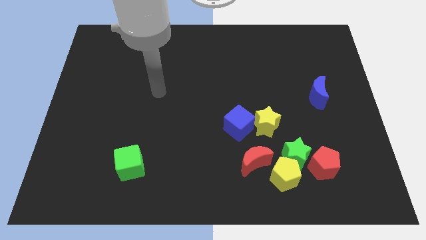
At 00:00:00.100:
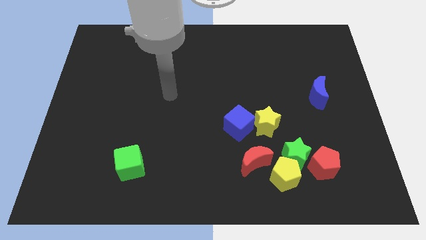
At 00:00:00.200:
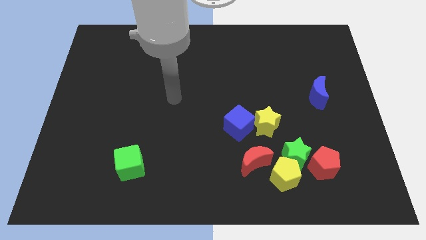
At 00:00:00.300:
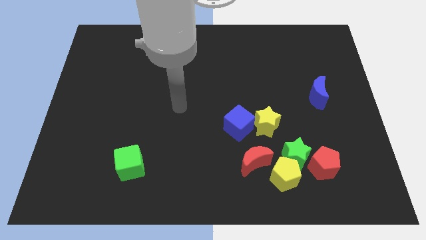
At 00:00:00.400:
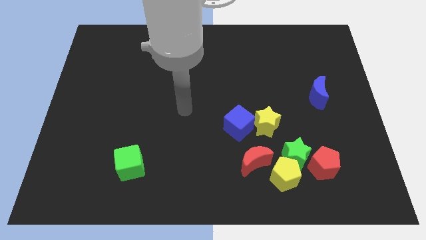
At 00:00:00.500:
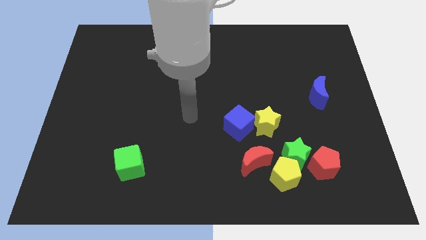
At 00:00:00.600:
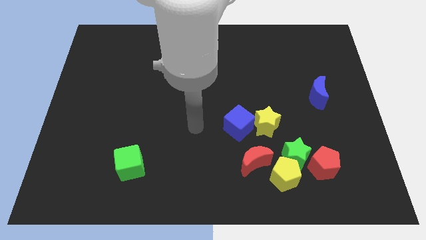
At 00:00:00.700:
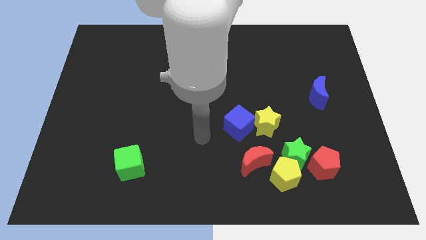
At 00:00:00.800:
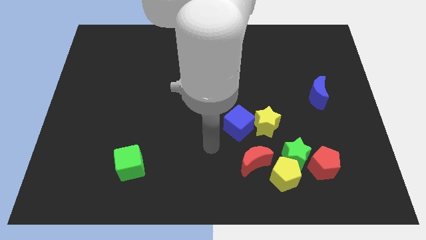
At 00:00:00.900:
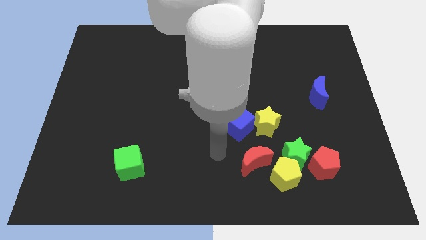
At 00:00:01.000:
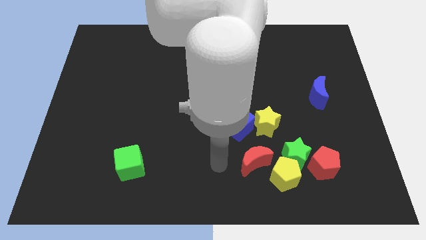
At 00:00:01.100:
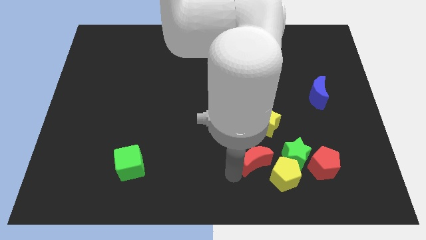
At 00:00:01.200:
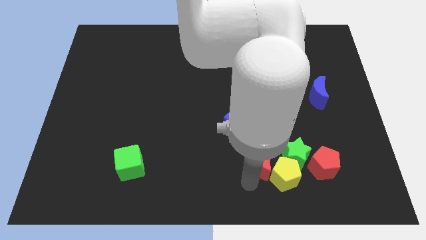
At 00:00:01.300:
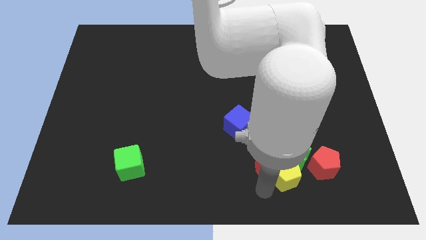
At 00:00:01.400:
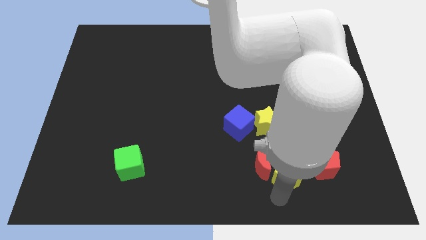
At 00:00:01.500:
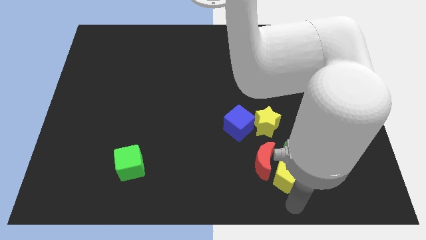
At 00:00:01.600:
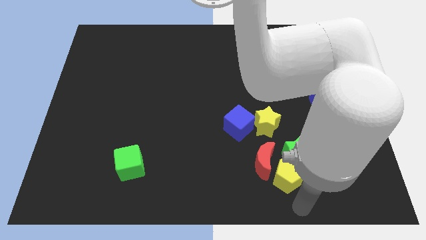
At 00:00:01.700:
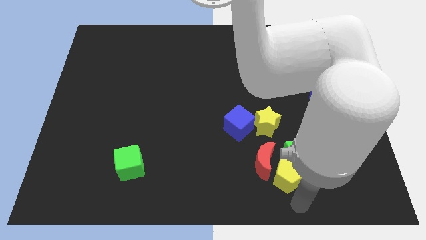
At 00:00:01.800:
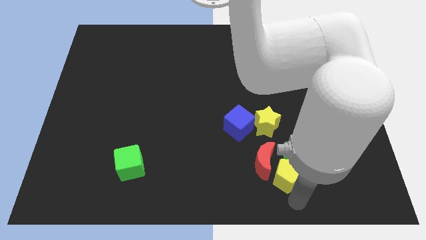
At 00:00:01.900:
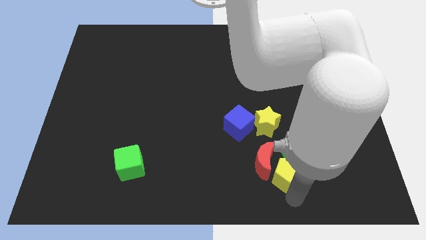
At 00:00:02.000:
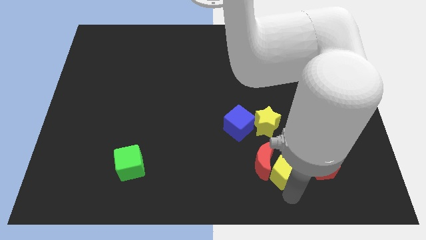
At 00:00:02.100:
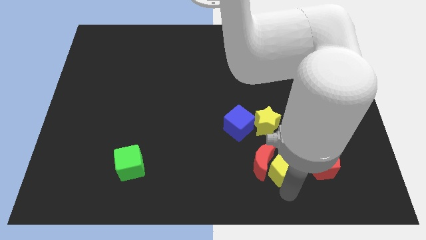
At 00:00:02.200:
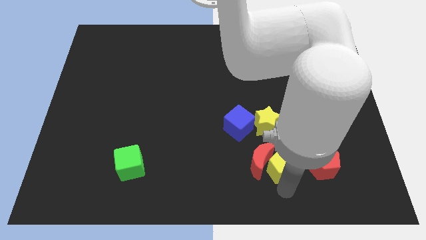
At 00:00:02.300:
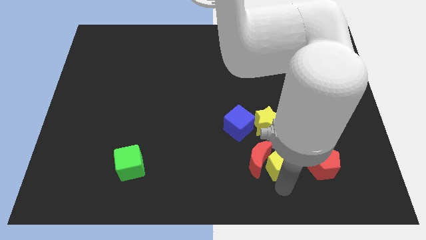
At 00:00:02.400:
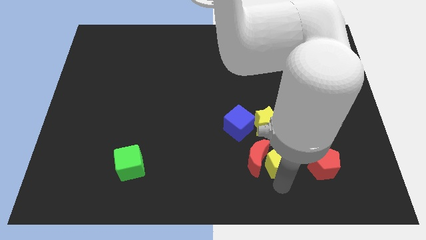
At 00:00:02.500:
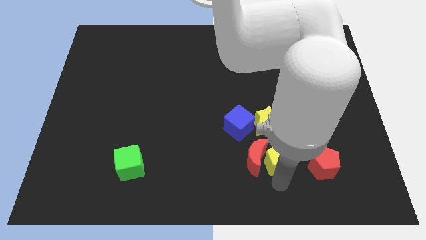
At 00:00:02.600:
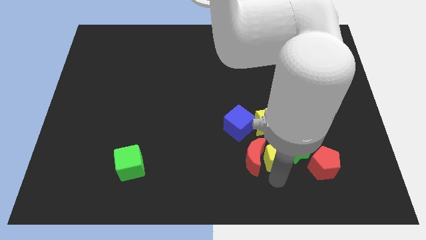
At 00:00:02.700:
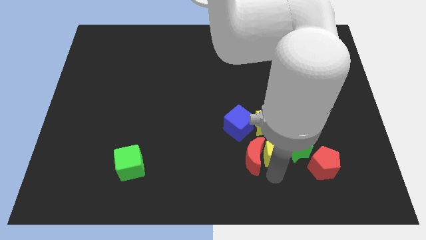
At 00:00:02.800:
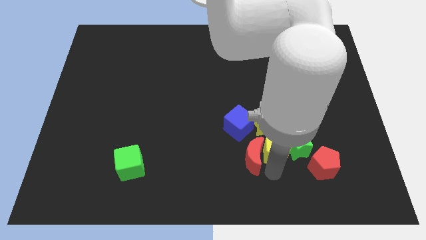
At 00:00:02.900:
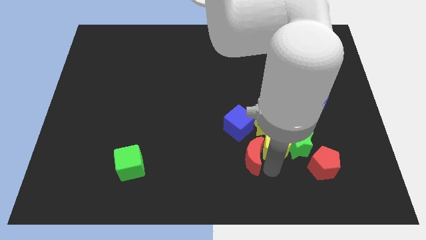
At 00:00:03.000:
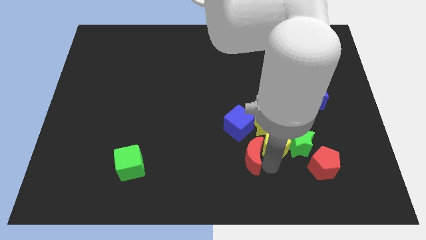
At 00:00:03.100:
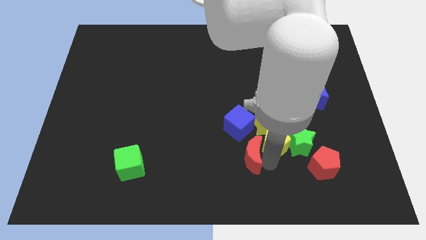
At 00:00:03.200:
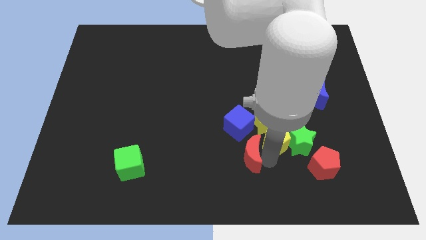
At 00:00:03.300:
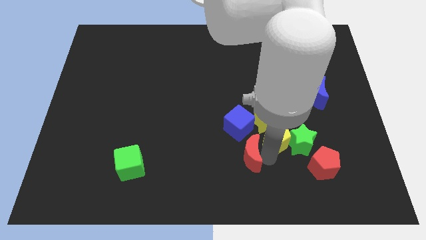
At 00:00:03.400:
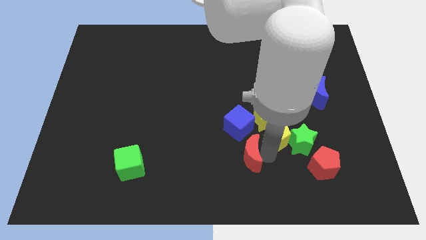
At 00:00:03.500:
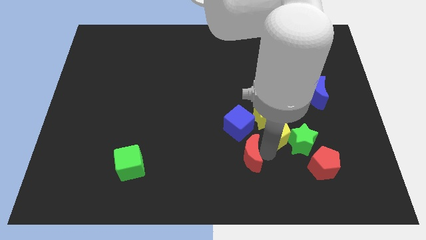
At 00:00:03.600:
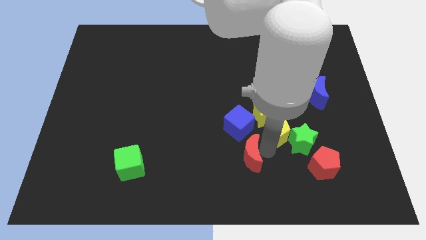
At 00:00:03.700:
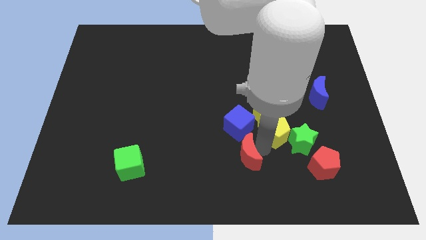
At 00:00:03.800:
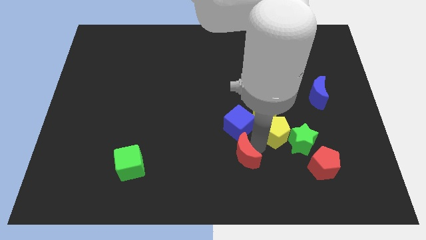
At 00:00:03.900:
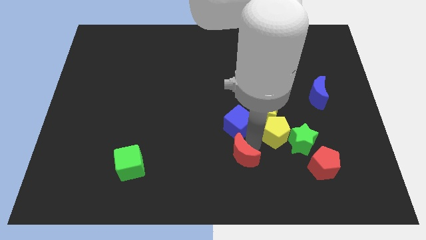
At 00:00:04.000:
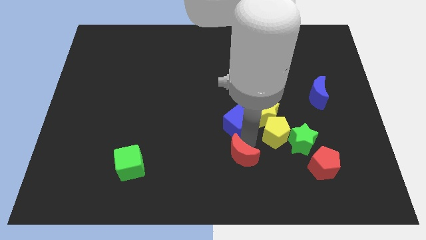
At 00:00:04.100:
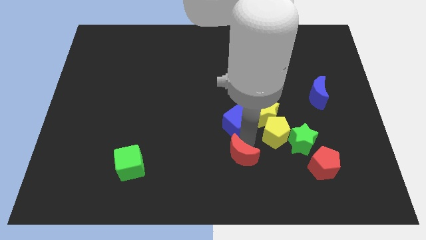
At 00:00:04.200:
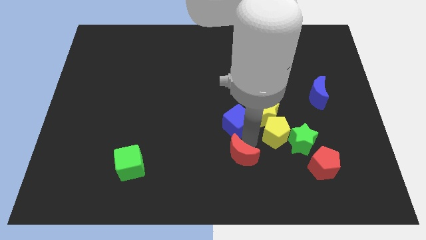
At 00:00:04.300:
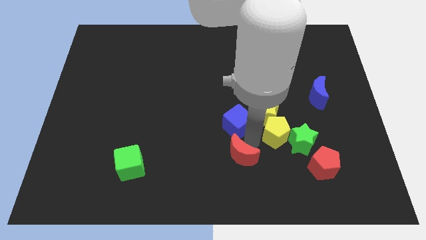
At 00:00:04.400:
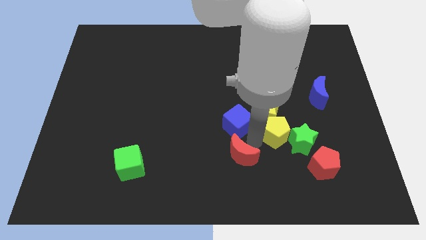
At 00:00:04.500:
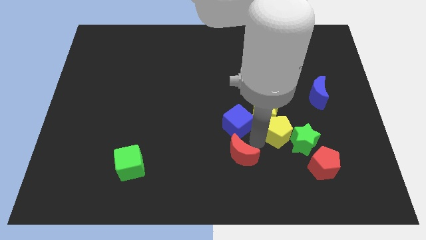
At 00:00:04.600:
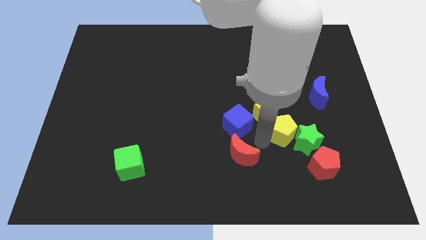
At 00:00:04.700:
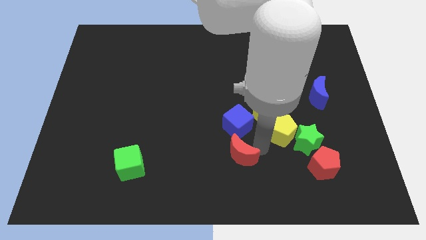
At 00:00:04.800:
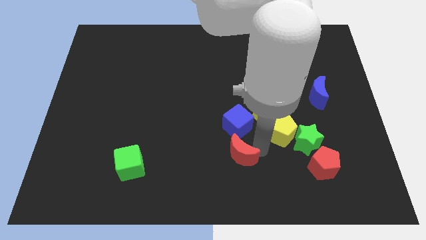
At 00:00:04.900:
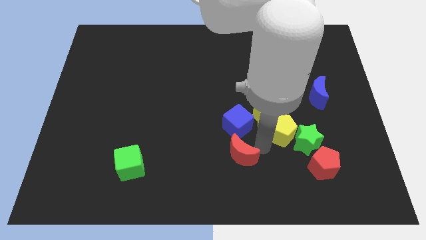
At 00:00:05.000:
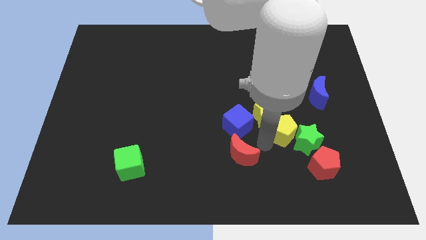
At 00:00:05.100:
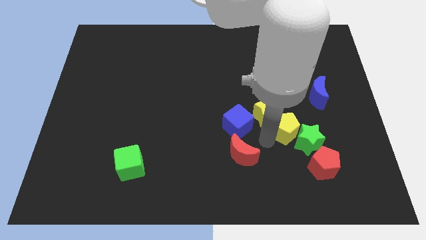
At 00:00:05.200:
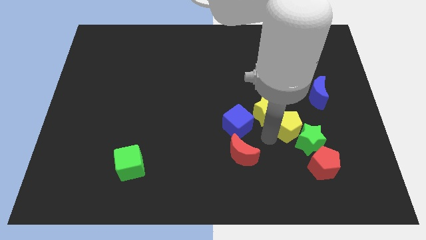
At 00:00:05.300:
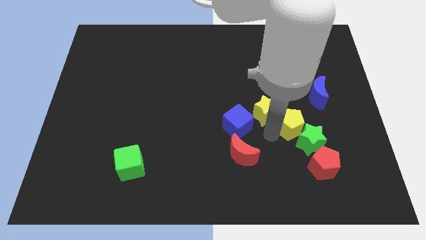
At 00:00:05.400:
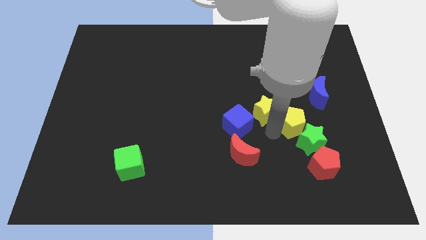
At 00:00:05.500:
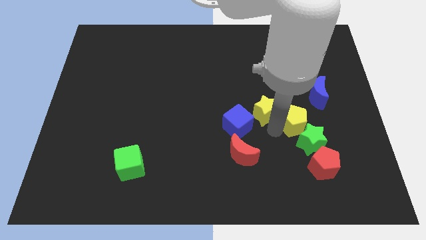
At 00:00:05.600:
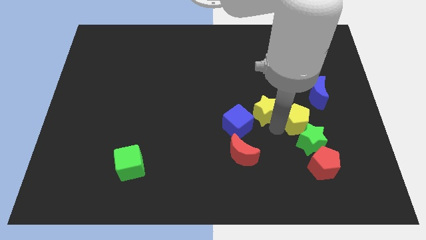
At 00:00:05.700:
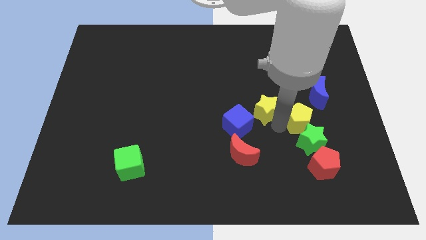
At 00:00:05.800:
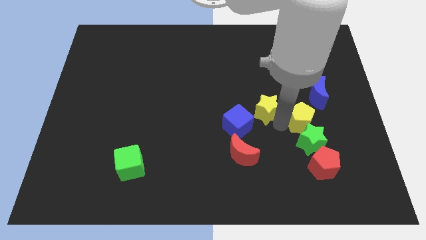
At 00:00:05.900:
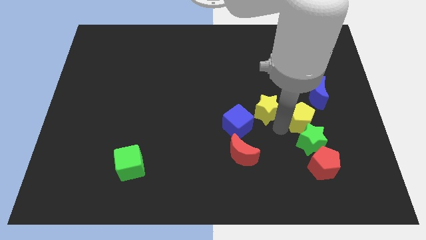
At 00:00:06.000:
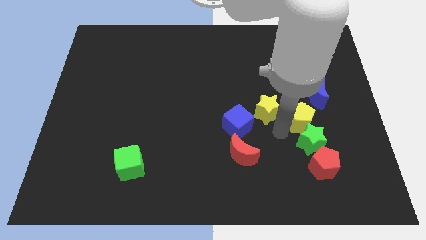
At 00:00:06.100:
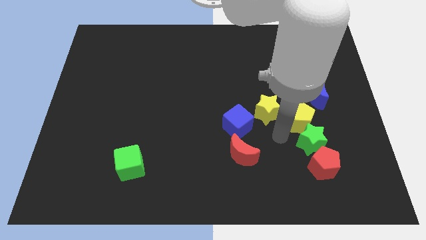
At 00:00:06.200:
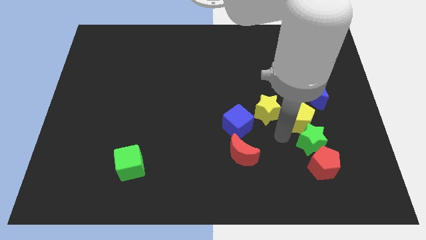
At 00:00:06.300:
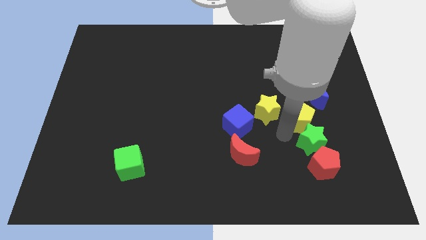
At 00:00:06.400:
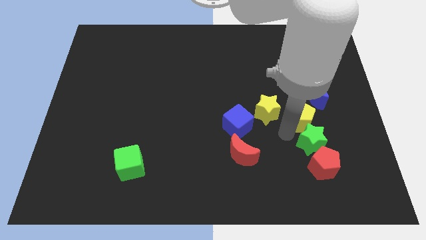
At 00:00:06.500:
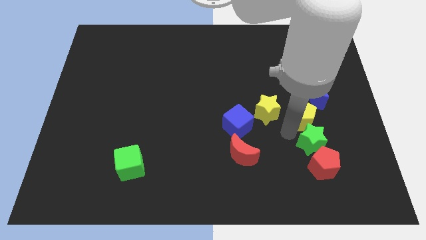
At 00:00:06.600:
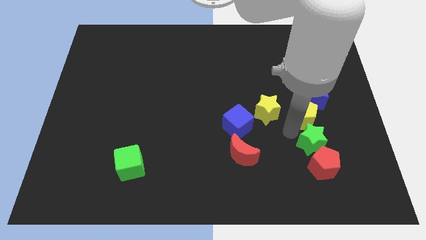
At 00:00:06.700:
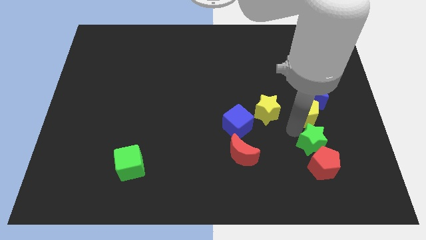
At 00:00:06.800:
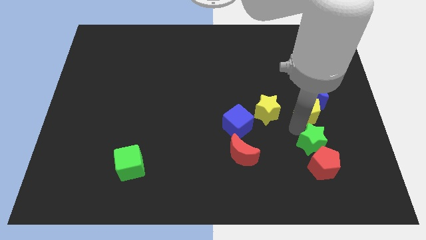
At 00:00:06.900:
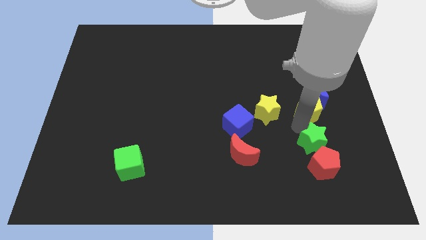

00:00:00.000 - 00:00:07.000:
move the yellow pentagon towards the blue moon
